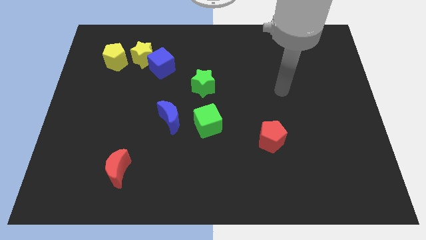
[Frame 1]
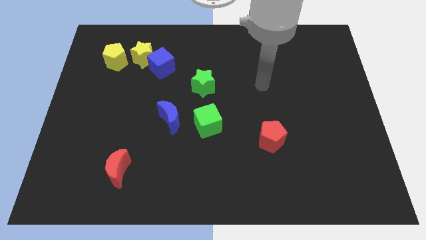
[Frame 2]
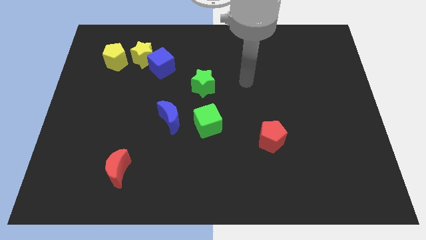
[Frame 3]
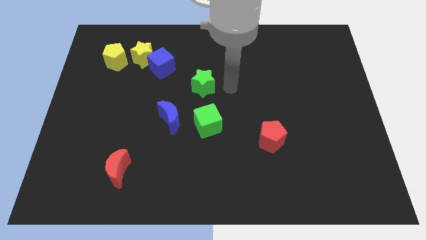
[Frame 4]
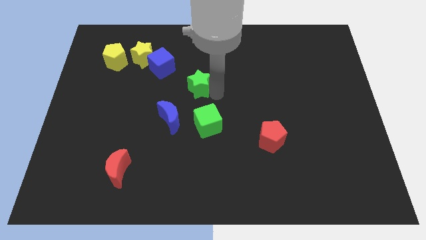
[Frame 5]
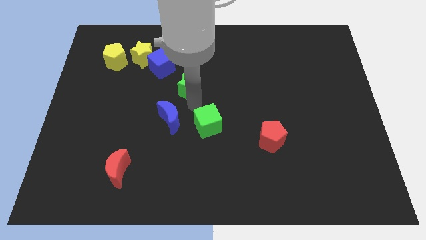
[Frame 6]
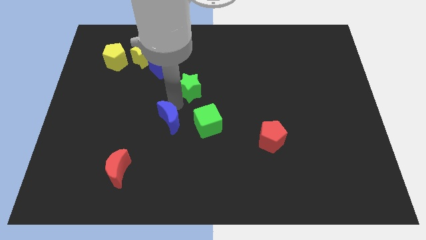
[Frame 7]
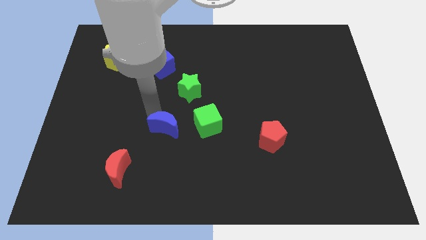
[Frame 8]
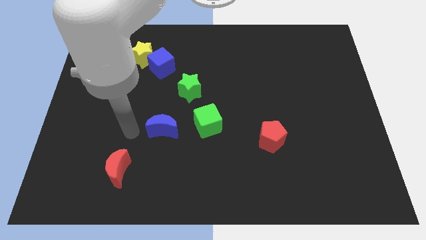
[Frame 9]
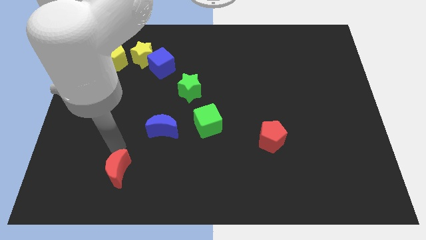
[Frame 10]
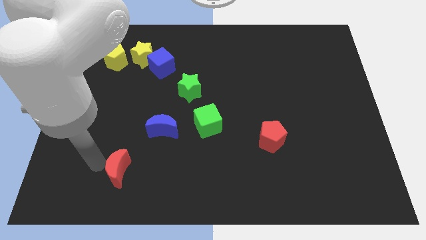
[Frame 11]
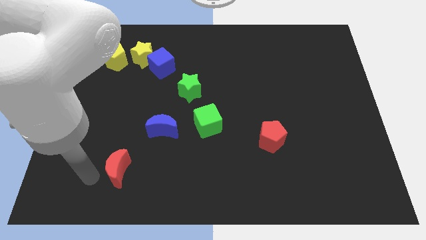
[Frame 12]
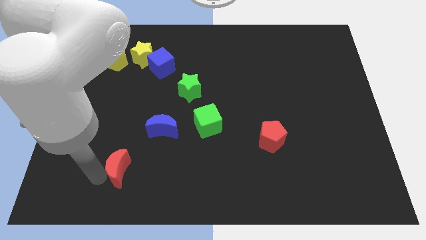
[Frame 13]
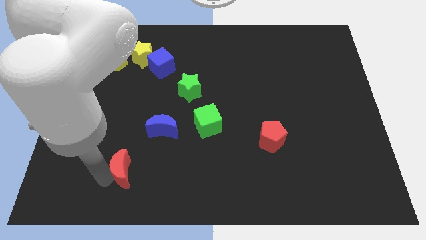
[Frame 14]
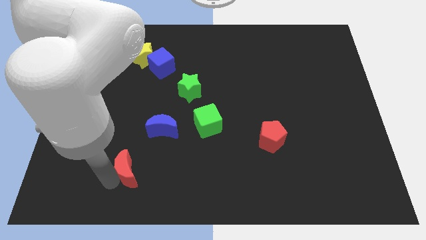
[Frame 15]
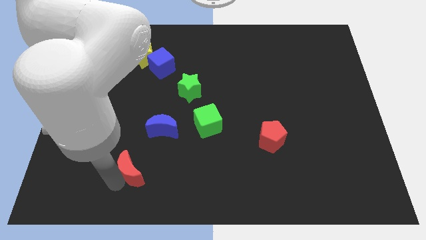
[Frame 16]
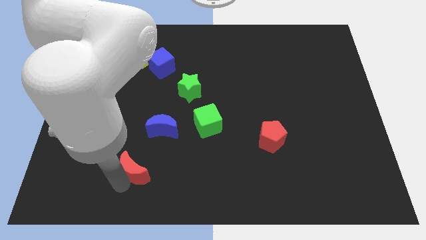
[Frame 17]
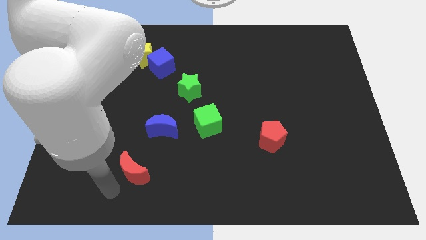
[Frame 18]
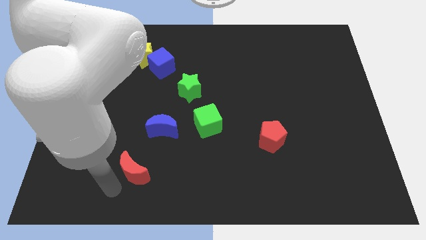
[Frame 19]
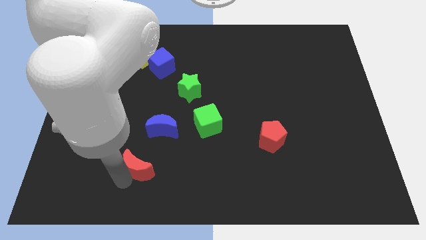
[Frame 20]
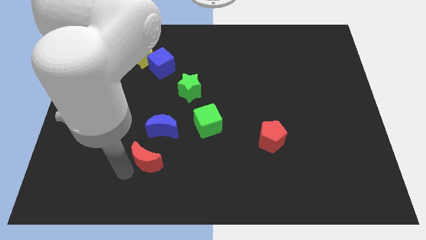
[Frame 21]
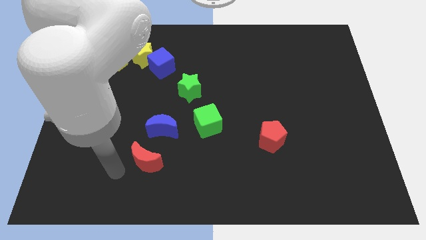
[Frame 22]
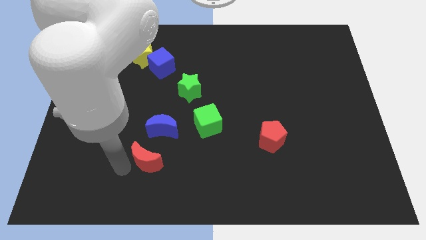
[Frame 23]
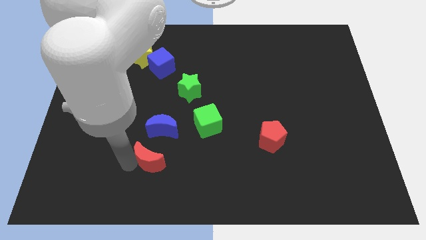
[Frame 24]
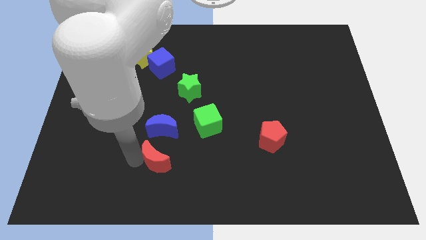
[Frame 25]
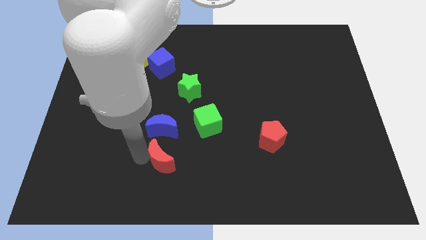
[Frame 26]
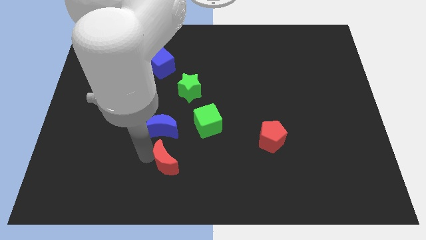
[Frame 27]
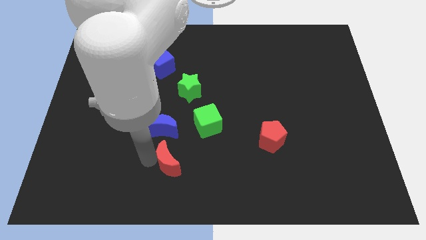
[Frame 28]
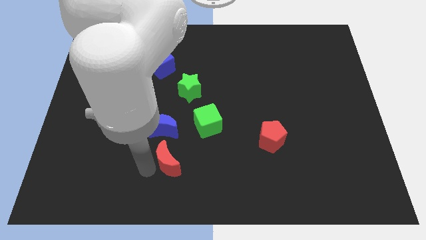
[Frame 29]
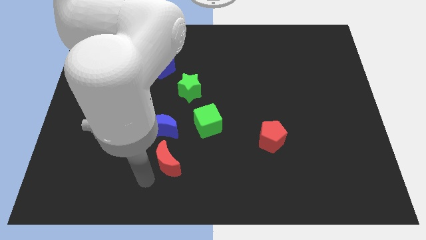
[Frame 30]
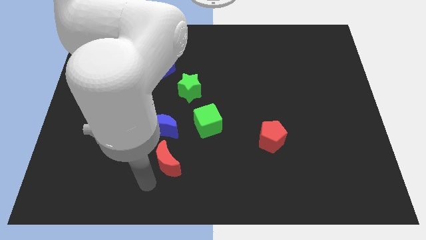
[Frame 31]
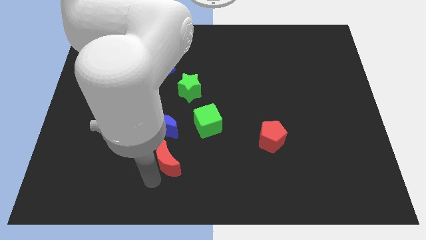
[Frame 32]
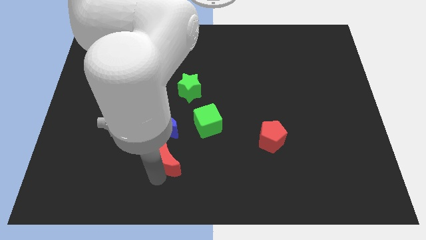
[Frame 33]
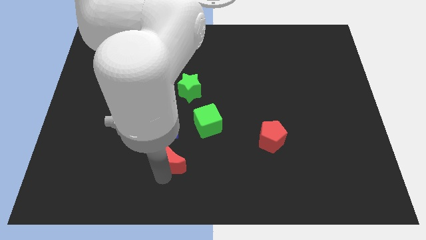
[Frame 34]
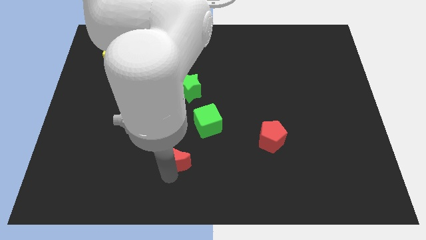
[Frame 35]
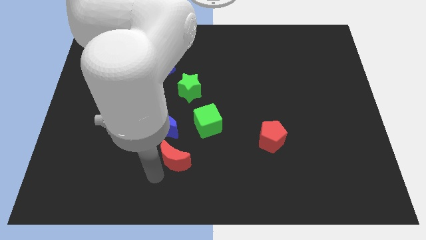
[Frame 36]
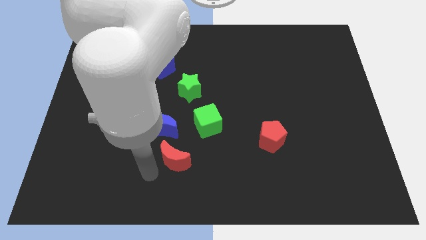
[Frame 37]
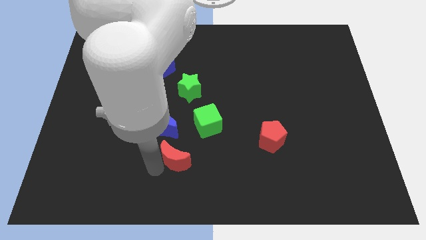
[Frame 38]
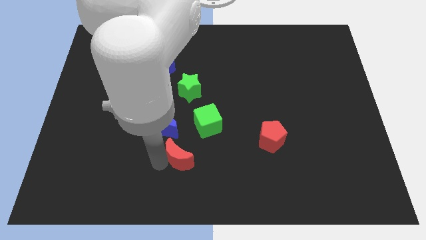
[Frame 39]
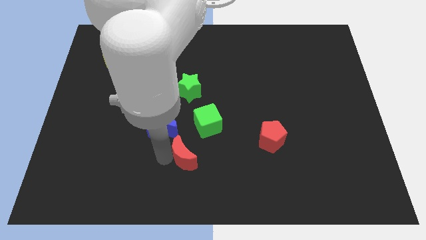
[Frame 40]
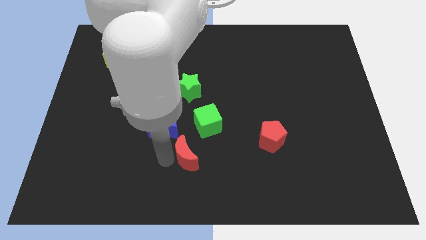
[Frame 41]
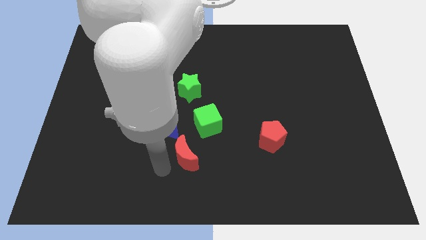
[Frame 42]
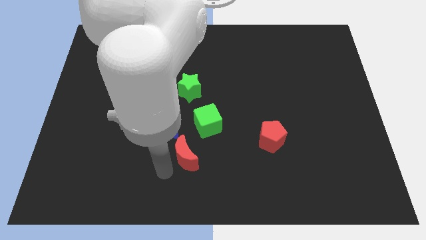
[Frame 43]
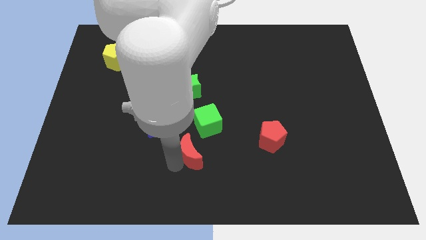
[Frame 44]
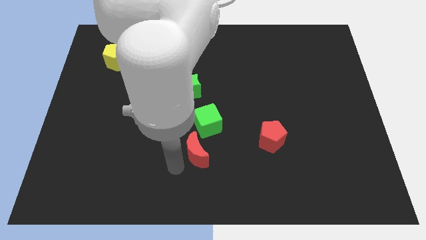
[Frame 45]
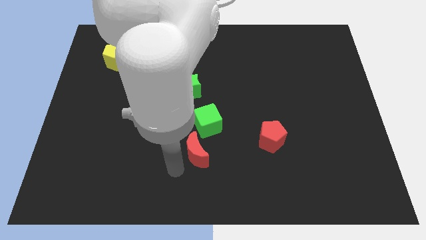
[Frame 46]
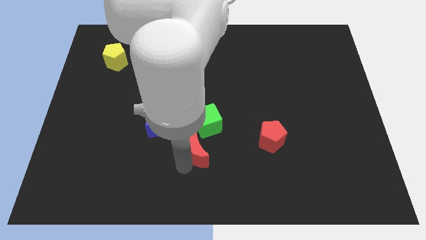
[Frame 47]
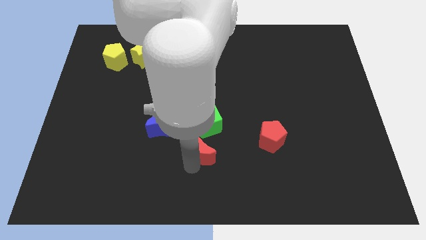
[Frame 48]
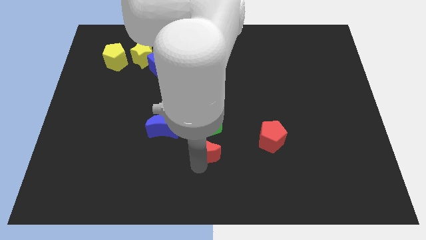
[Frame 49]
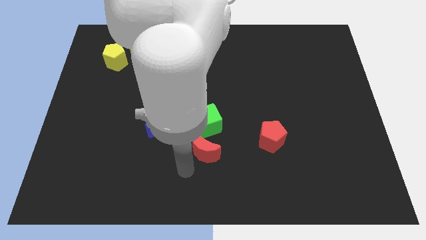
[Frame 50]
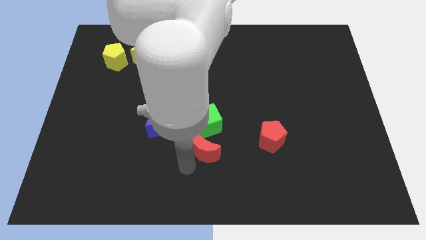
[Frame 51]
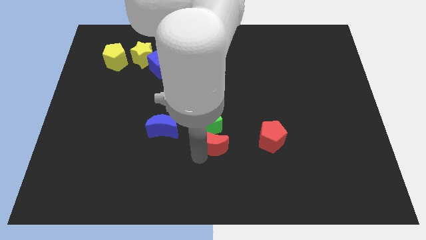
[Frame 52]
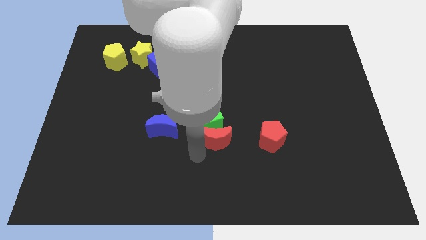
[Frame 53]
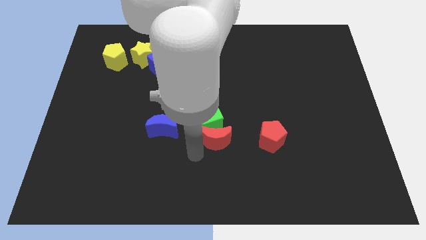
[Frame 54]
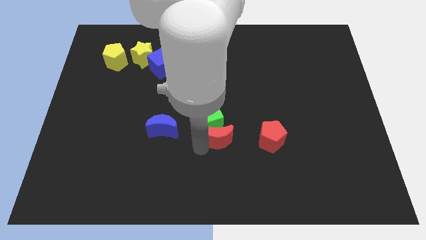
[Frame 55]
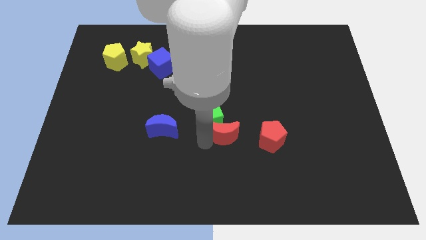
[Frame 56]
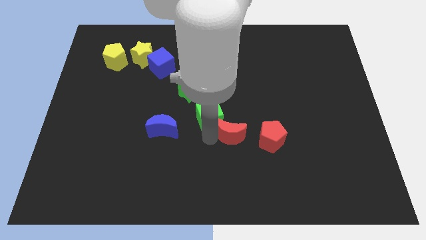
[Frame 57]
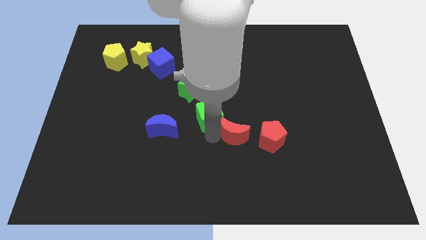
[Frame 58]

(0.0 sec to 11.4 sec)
slide the red moon to the top left side of the red pentagon

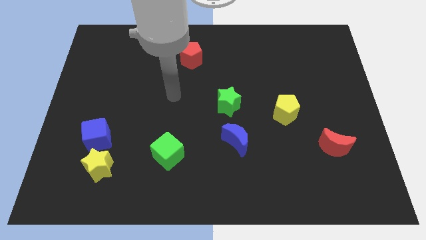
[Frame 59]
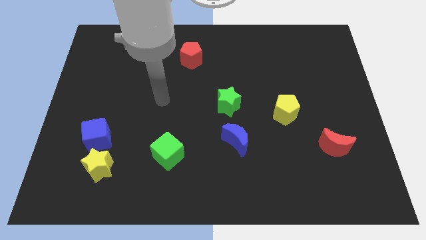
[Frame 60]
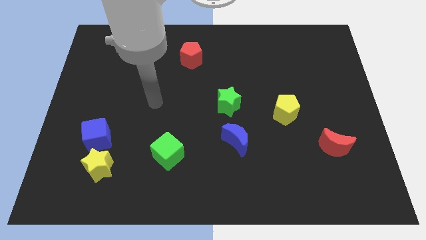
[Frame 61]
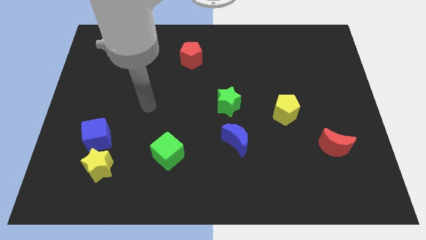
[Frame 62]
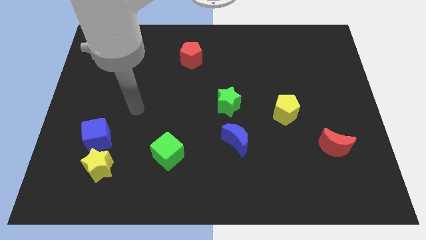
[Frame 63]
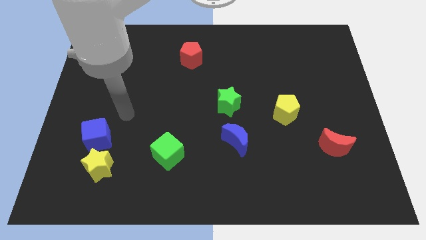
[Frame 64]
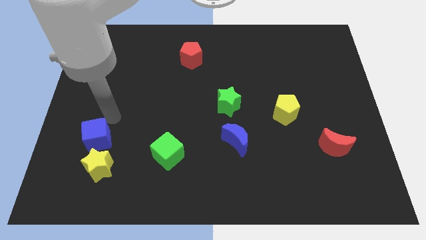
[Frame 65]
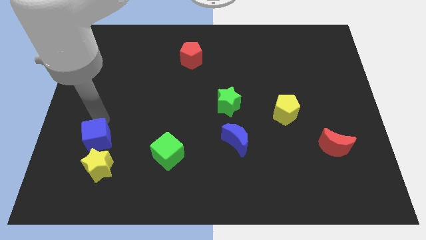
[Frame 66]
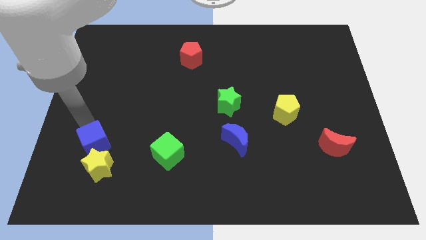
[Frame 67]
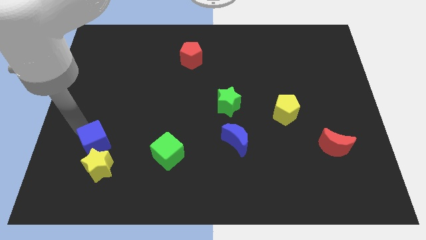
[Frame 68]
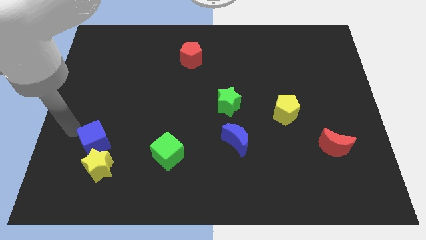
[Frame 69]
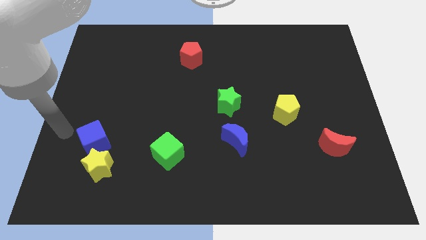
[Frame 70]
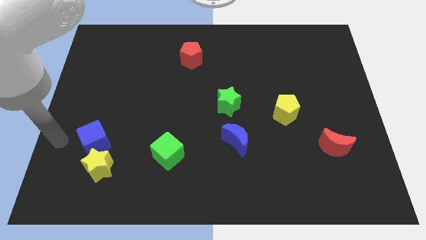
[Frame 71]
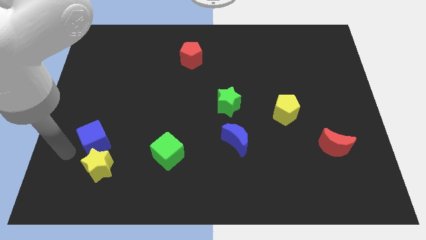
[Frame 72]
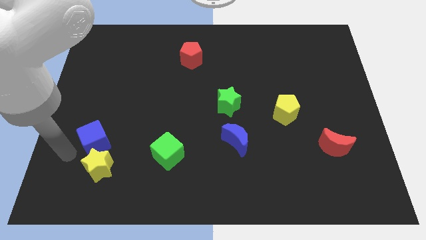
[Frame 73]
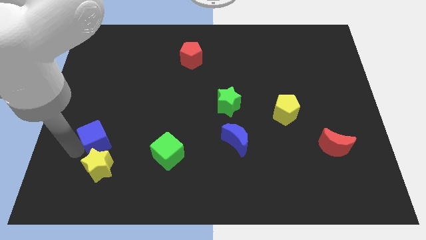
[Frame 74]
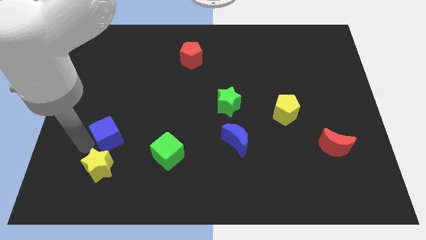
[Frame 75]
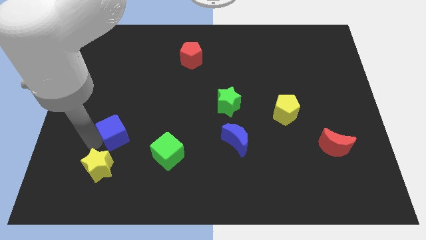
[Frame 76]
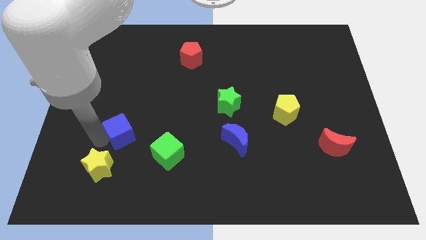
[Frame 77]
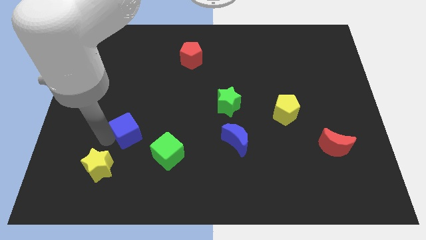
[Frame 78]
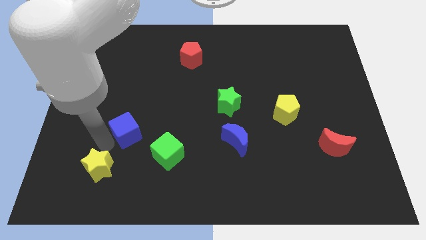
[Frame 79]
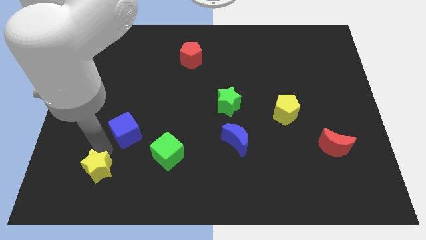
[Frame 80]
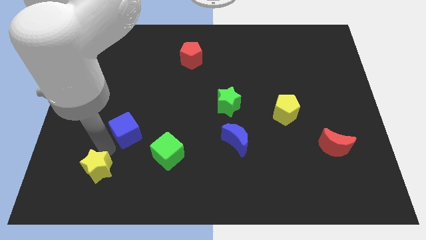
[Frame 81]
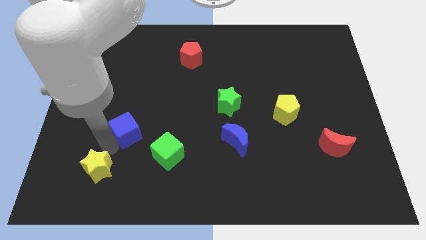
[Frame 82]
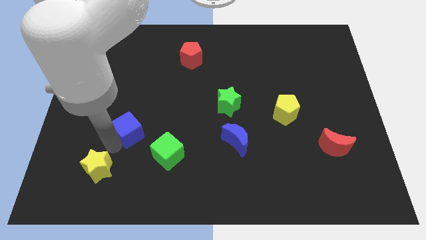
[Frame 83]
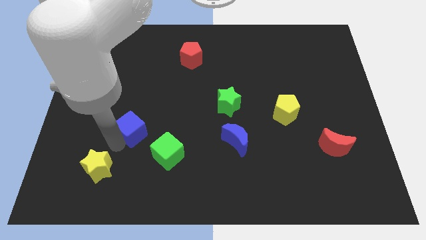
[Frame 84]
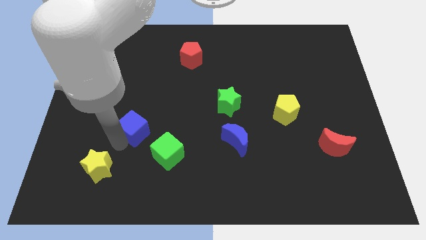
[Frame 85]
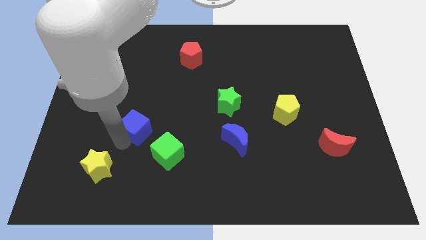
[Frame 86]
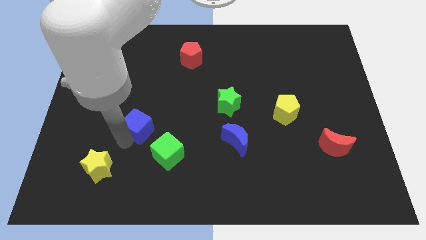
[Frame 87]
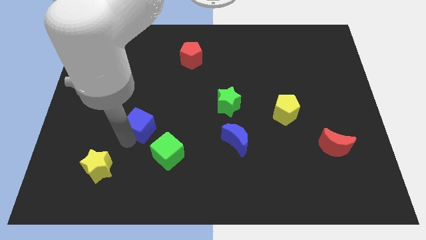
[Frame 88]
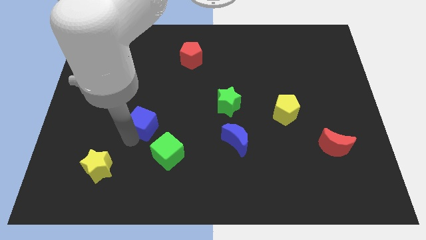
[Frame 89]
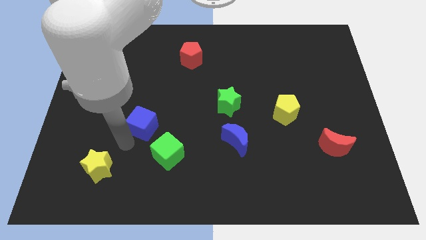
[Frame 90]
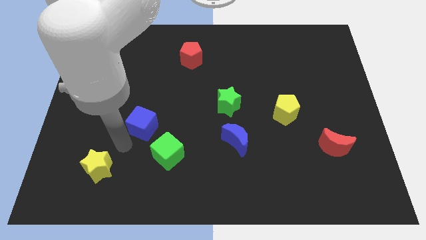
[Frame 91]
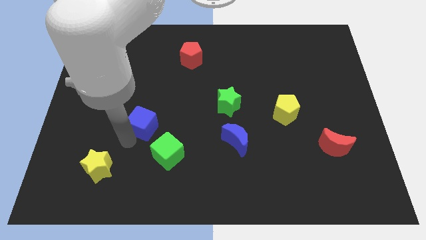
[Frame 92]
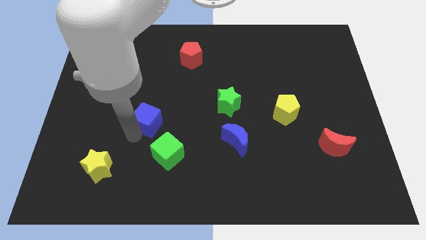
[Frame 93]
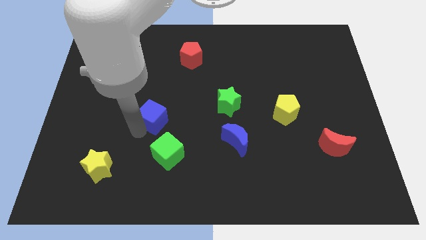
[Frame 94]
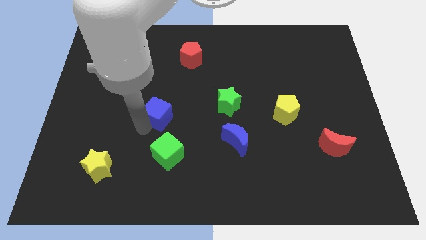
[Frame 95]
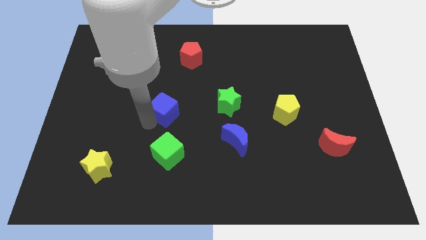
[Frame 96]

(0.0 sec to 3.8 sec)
push the blue cube to the left side of the green star
